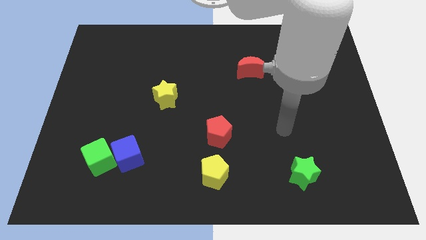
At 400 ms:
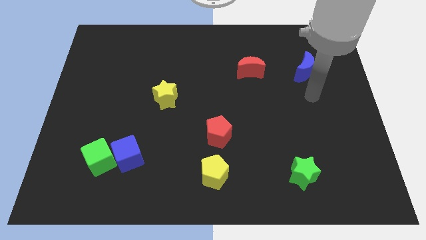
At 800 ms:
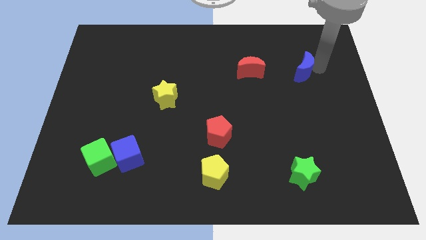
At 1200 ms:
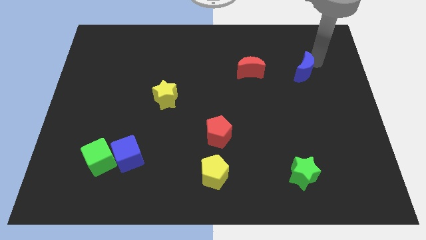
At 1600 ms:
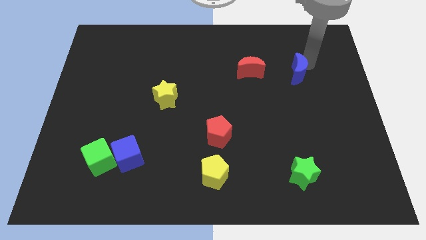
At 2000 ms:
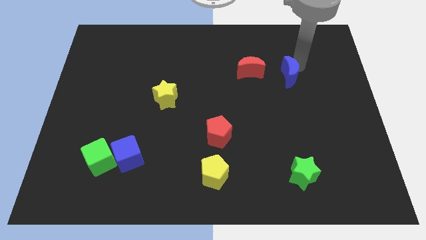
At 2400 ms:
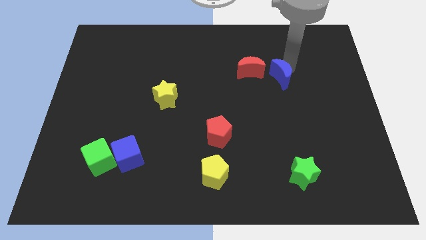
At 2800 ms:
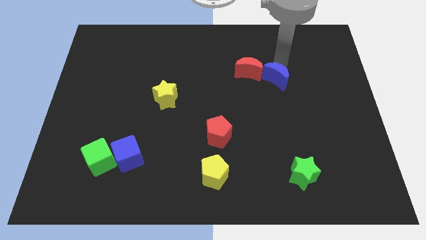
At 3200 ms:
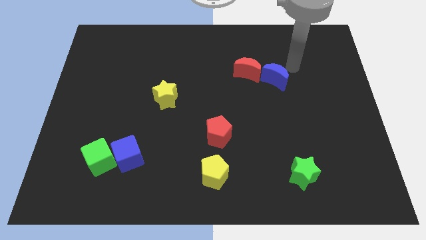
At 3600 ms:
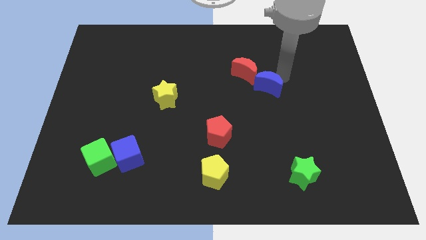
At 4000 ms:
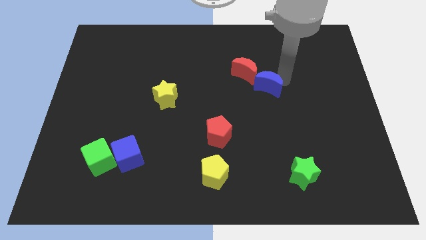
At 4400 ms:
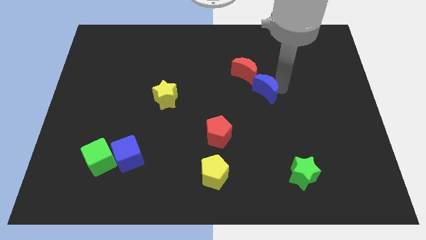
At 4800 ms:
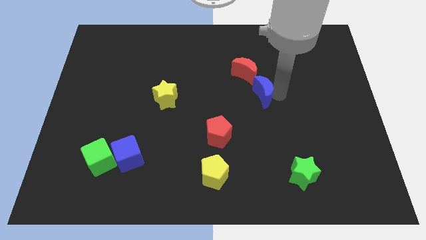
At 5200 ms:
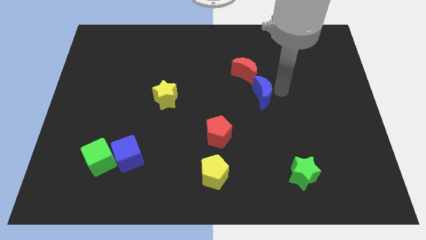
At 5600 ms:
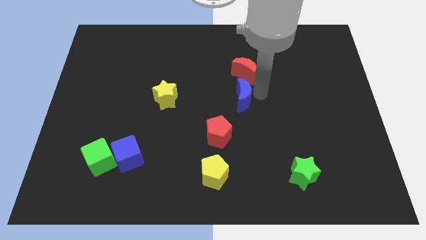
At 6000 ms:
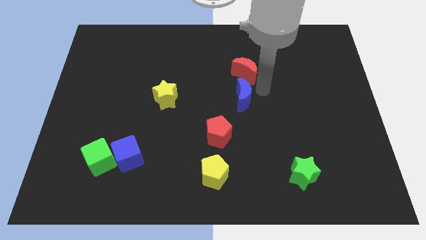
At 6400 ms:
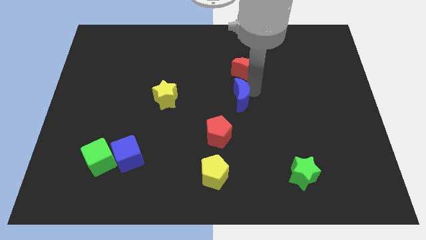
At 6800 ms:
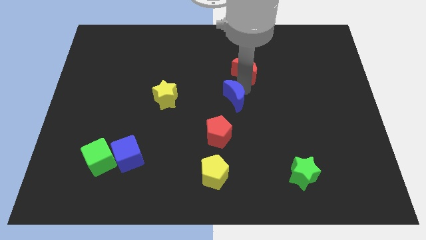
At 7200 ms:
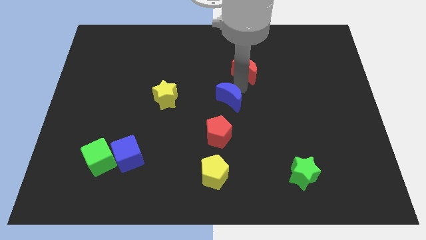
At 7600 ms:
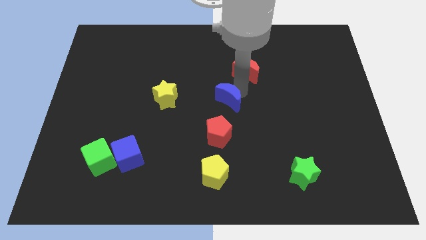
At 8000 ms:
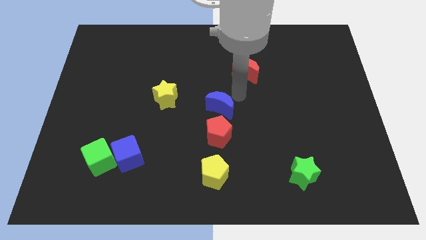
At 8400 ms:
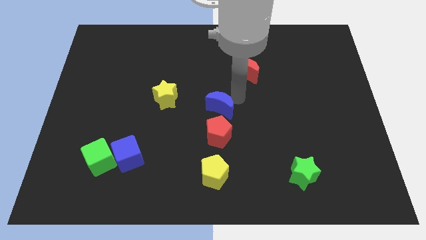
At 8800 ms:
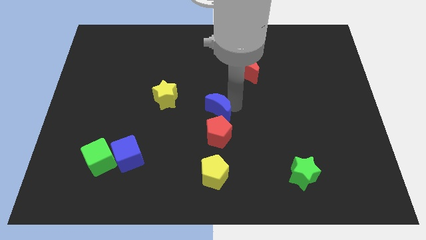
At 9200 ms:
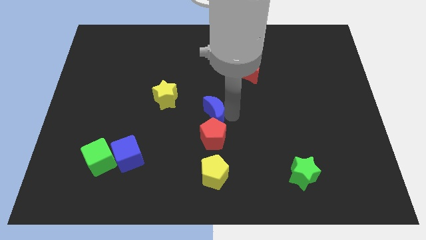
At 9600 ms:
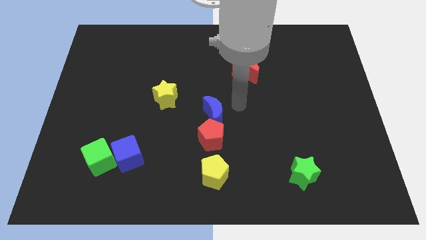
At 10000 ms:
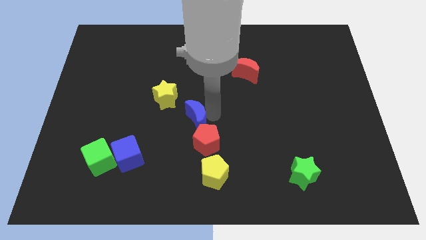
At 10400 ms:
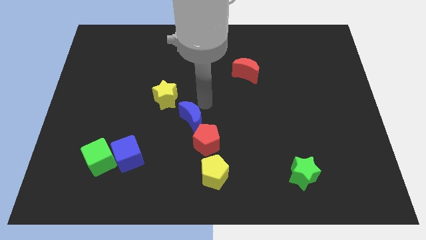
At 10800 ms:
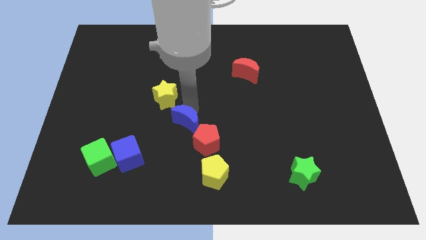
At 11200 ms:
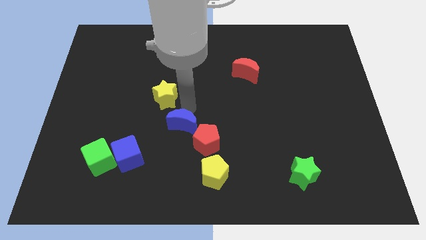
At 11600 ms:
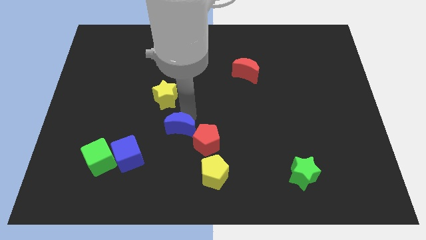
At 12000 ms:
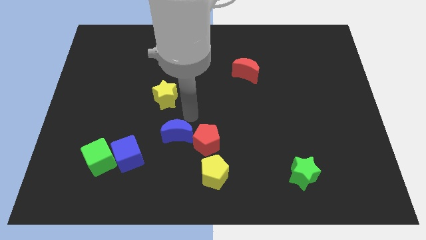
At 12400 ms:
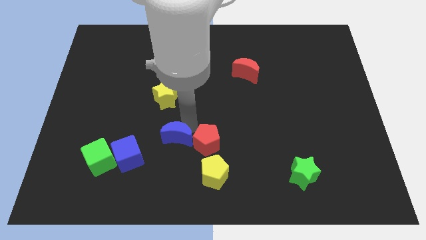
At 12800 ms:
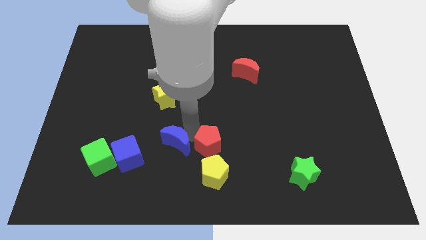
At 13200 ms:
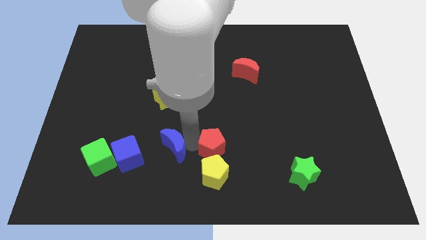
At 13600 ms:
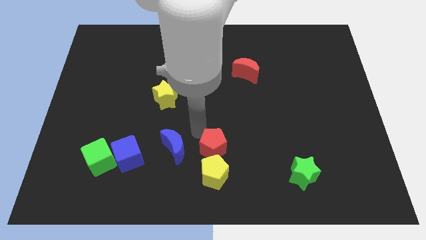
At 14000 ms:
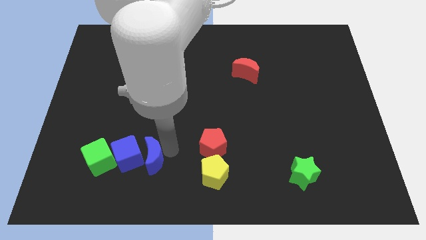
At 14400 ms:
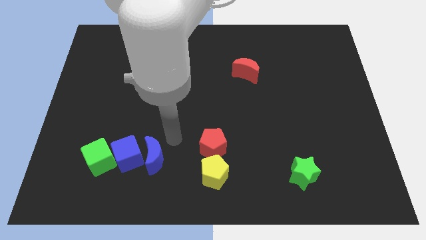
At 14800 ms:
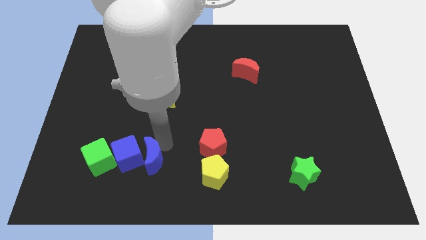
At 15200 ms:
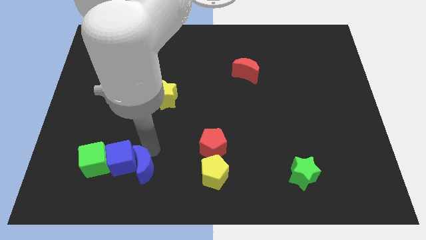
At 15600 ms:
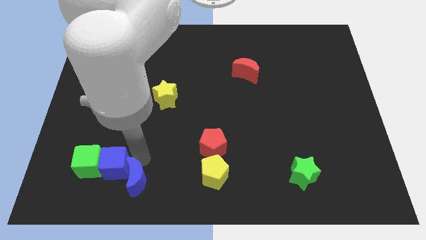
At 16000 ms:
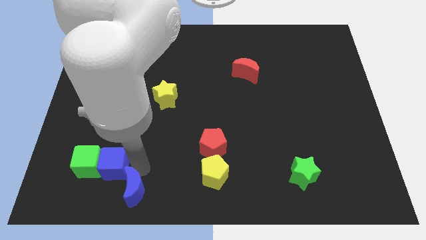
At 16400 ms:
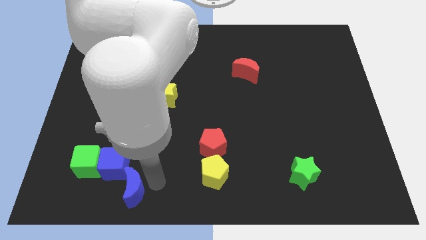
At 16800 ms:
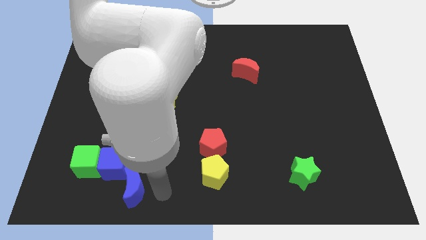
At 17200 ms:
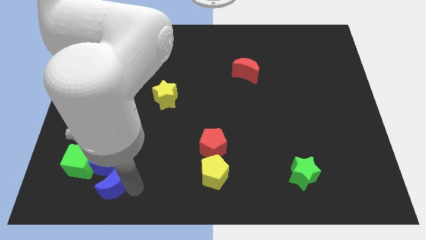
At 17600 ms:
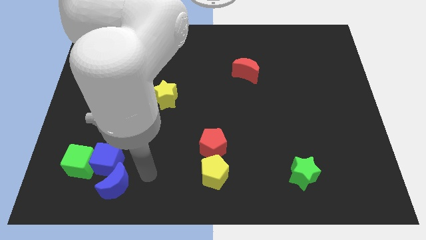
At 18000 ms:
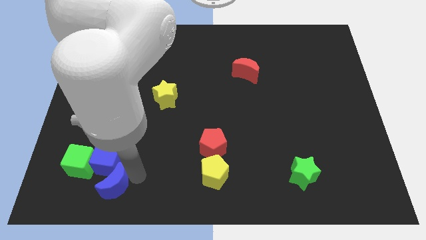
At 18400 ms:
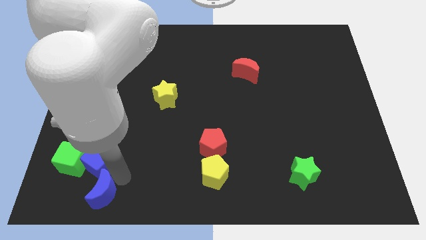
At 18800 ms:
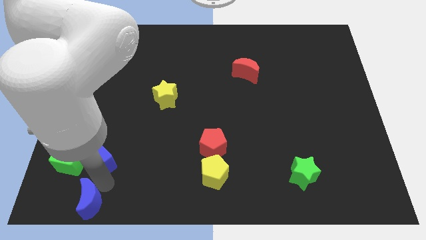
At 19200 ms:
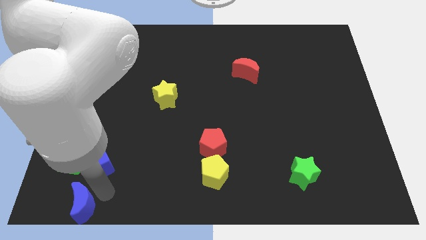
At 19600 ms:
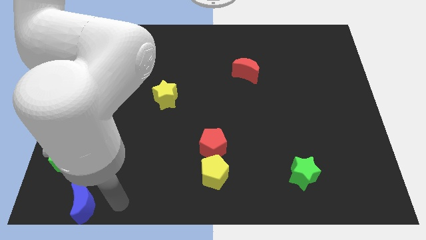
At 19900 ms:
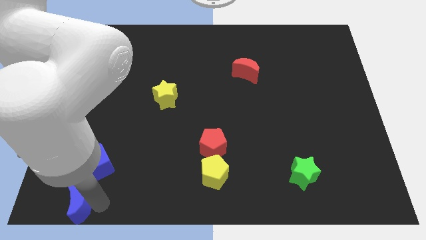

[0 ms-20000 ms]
slide the blue moon to the bottom left corner
